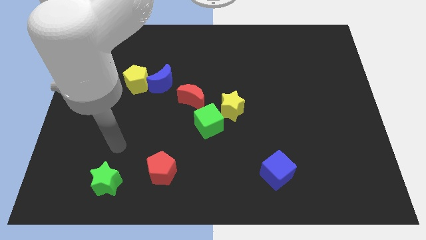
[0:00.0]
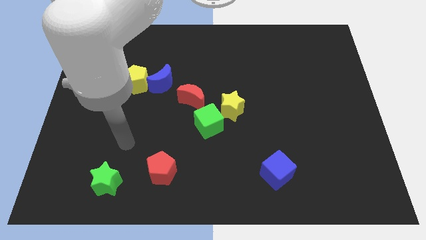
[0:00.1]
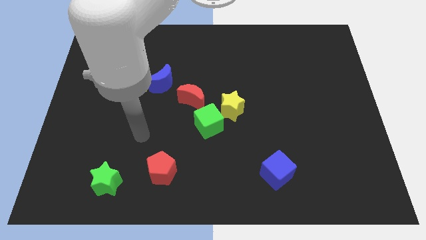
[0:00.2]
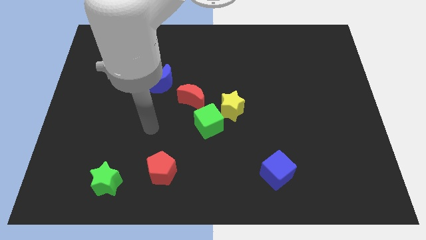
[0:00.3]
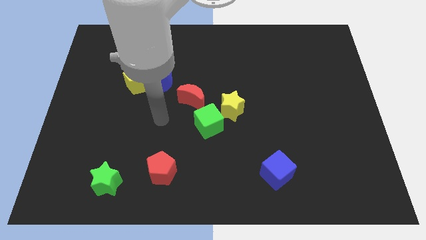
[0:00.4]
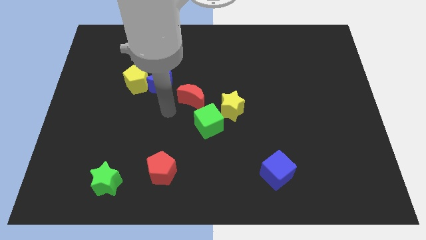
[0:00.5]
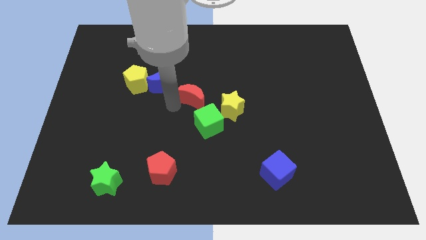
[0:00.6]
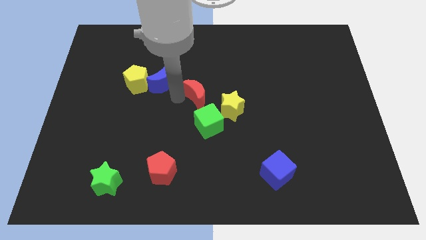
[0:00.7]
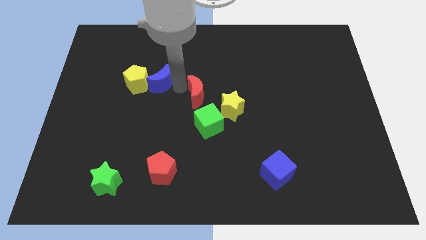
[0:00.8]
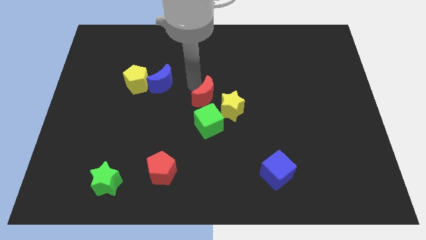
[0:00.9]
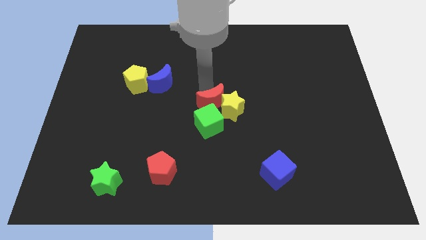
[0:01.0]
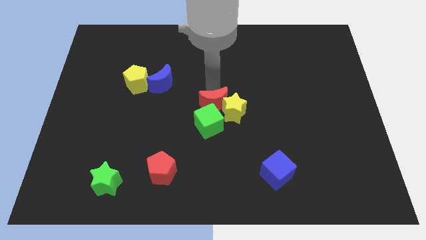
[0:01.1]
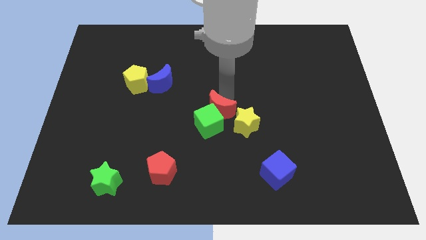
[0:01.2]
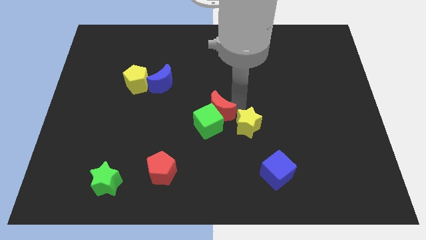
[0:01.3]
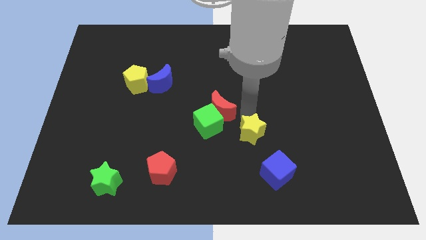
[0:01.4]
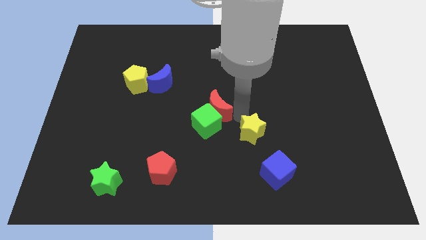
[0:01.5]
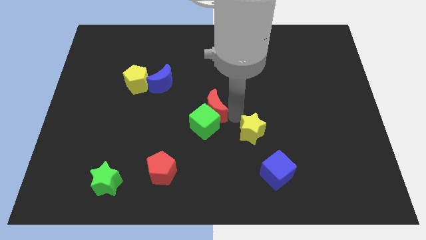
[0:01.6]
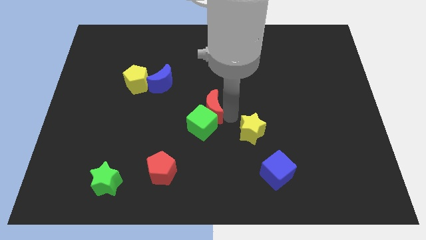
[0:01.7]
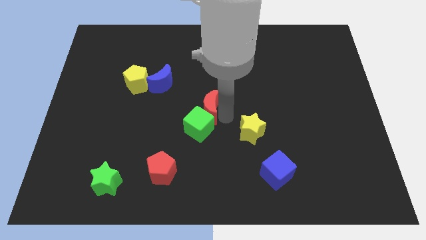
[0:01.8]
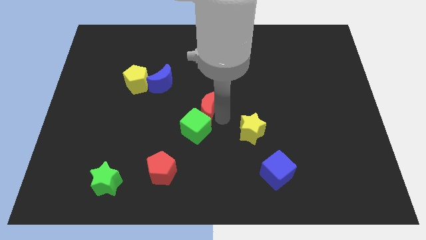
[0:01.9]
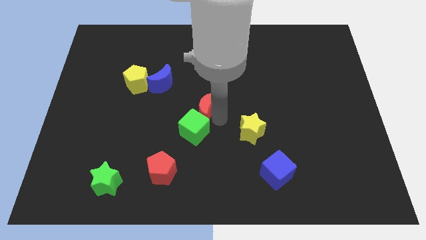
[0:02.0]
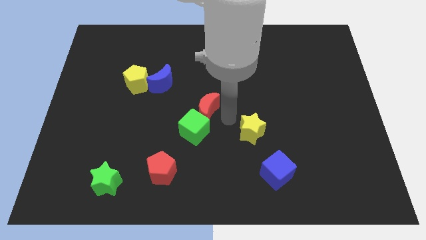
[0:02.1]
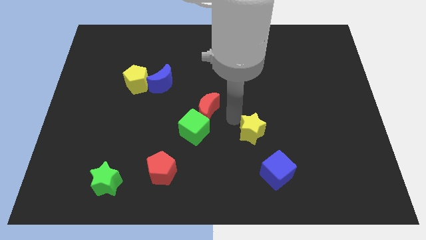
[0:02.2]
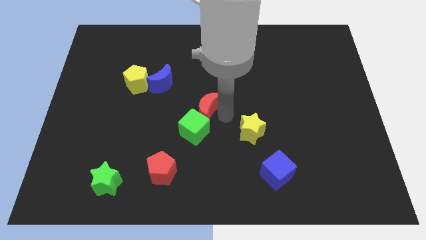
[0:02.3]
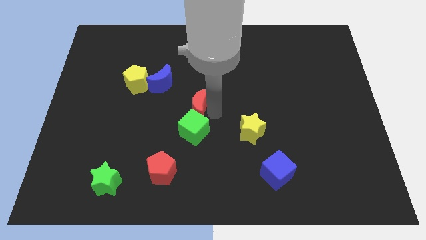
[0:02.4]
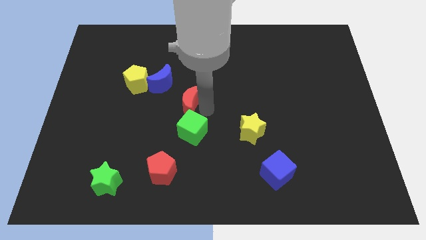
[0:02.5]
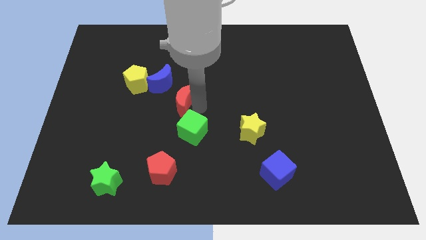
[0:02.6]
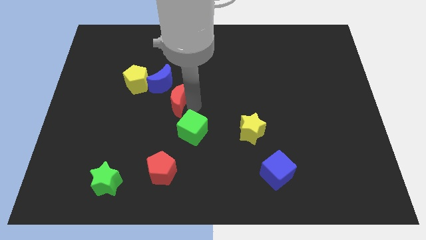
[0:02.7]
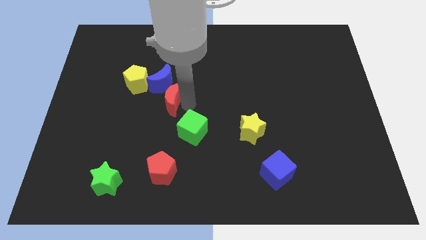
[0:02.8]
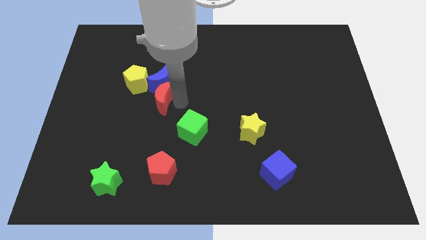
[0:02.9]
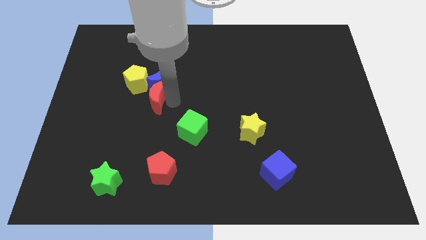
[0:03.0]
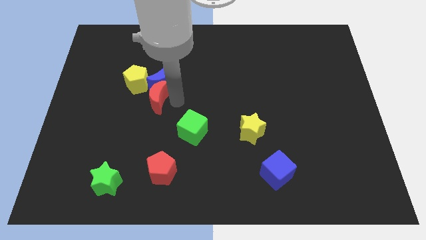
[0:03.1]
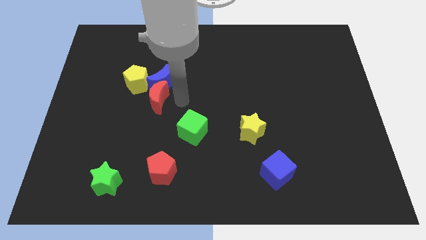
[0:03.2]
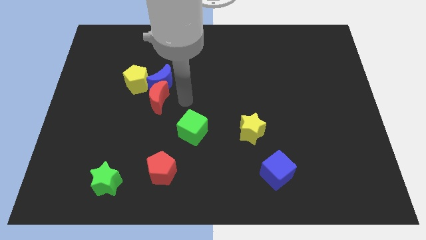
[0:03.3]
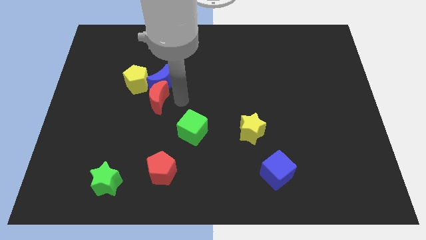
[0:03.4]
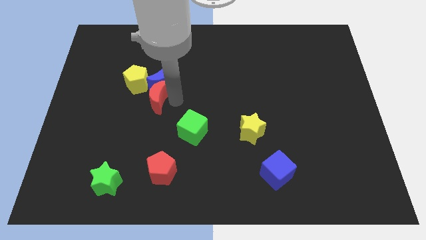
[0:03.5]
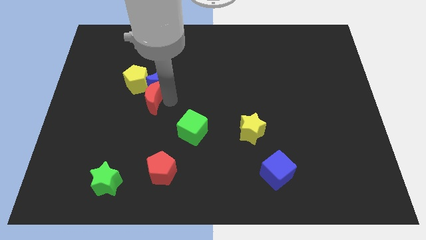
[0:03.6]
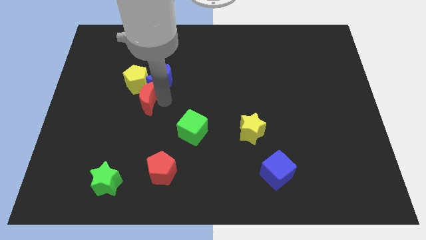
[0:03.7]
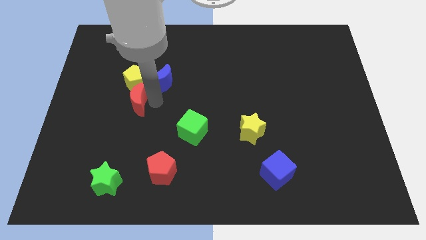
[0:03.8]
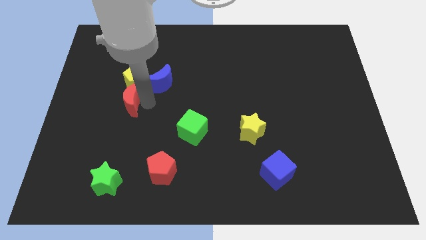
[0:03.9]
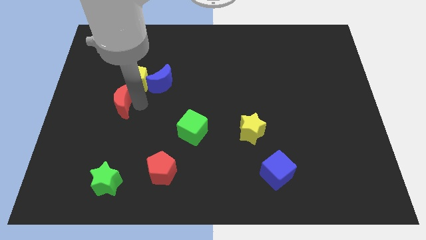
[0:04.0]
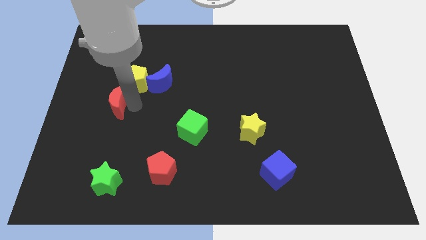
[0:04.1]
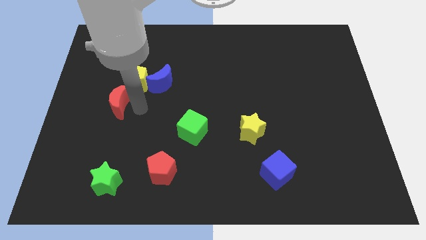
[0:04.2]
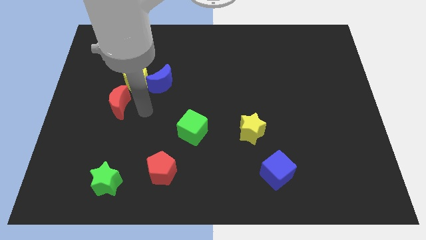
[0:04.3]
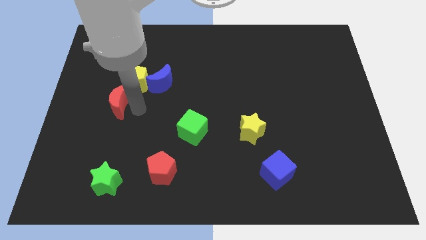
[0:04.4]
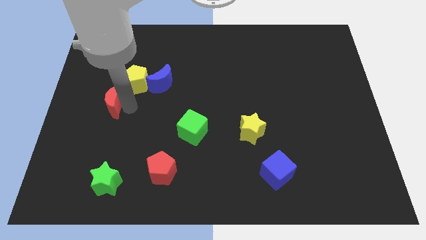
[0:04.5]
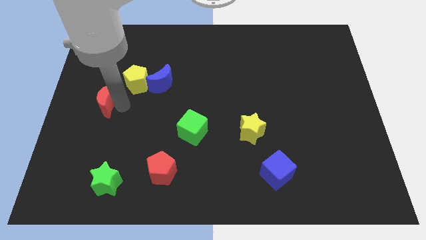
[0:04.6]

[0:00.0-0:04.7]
slide the red moon to the center left

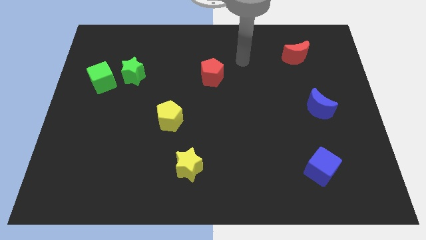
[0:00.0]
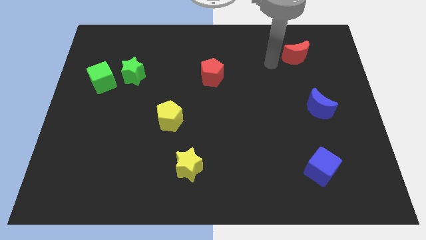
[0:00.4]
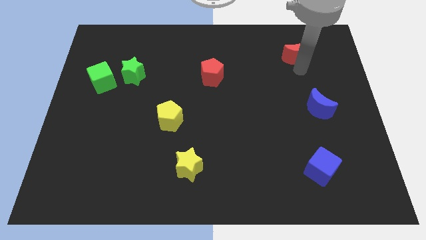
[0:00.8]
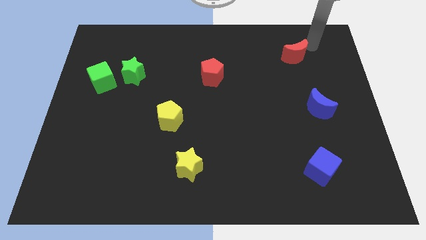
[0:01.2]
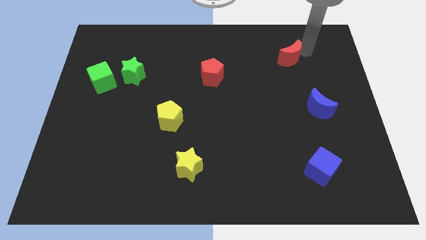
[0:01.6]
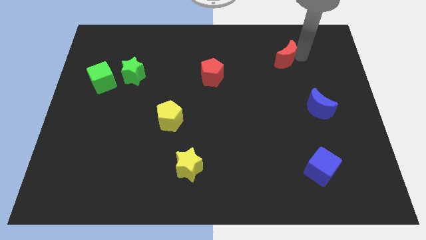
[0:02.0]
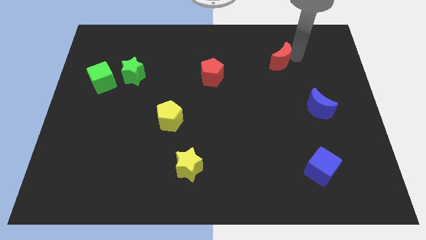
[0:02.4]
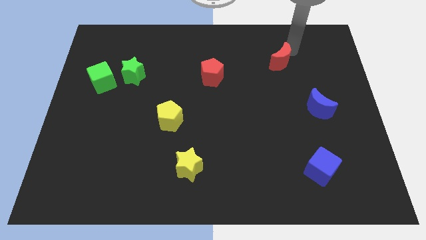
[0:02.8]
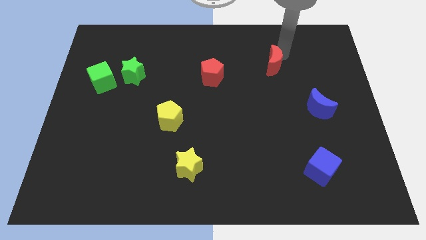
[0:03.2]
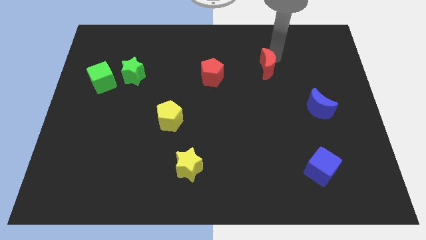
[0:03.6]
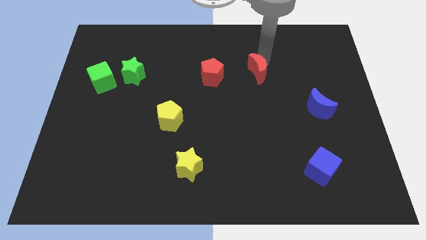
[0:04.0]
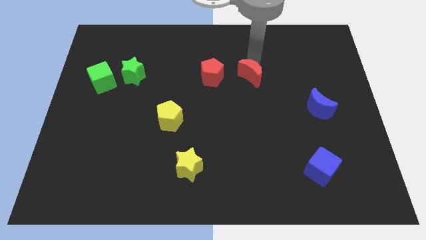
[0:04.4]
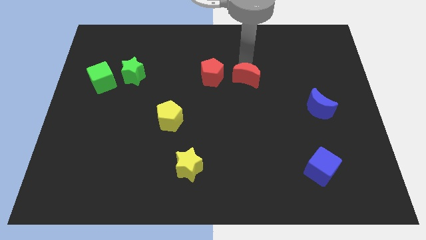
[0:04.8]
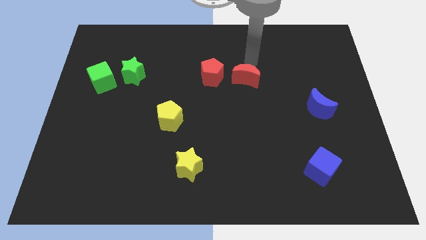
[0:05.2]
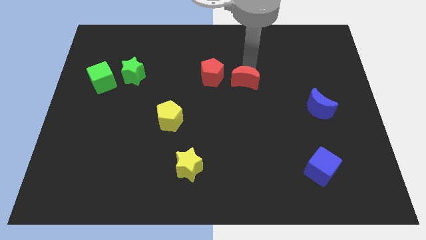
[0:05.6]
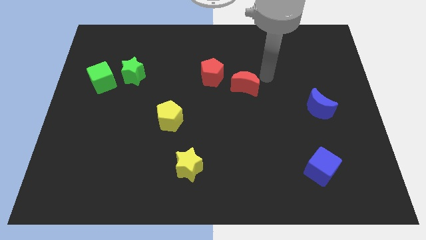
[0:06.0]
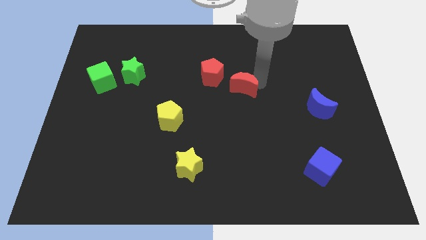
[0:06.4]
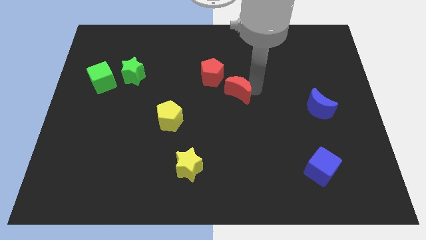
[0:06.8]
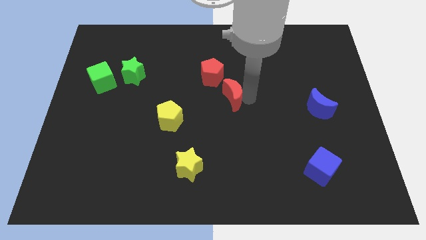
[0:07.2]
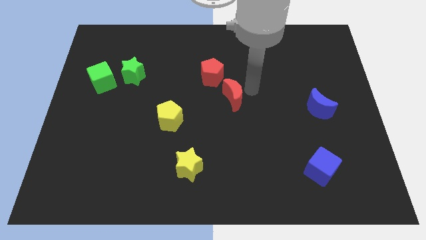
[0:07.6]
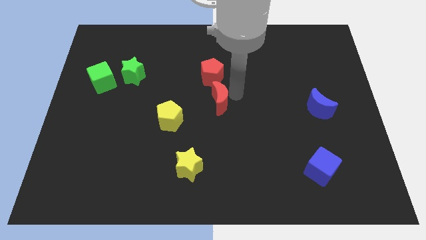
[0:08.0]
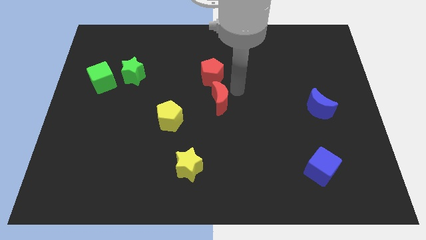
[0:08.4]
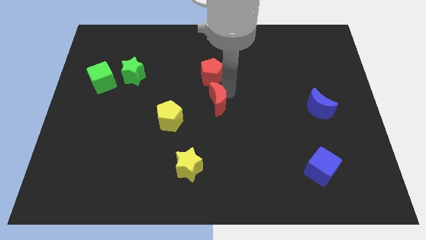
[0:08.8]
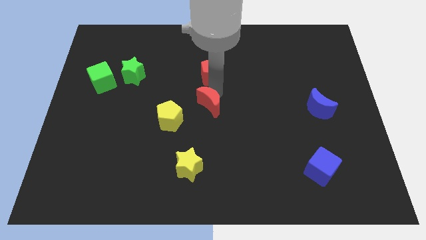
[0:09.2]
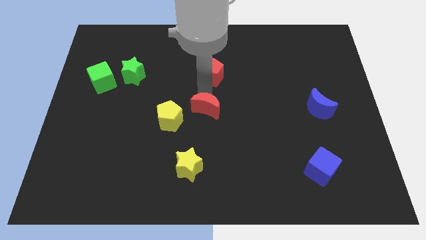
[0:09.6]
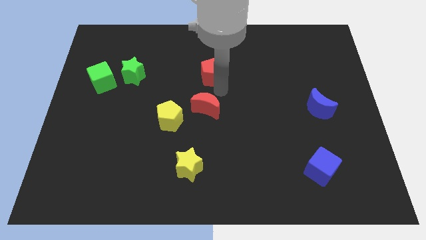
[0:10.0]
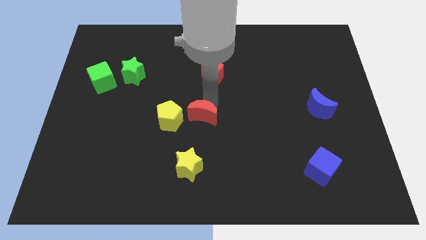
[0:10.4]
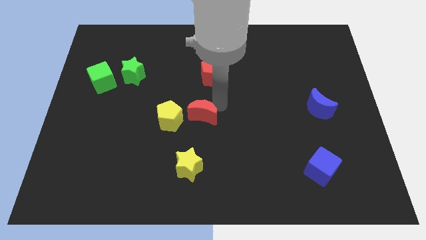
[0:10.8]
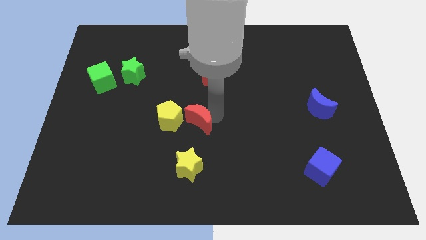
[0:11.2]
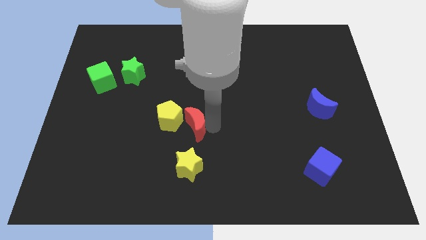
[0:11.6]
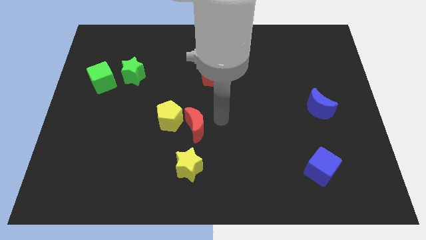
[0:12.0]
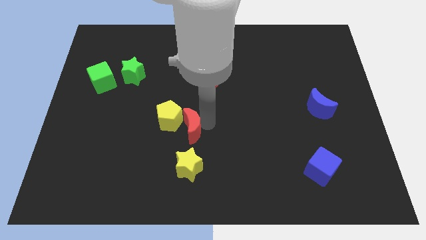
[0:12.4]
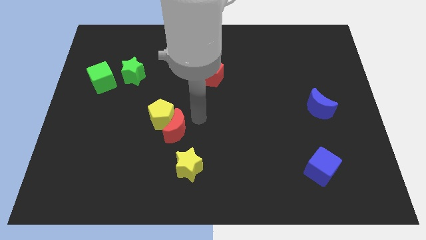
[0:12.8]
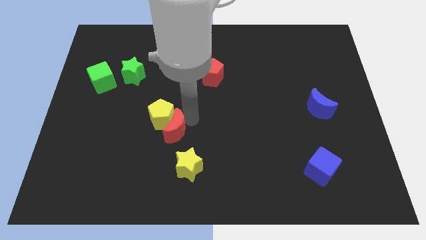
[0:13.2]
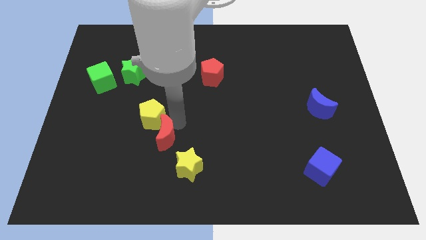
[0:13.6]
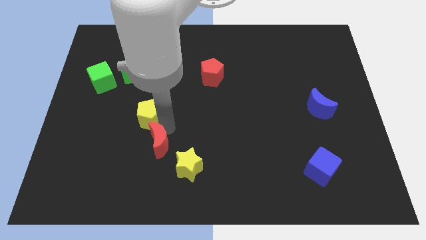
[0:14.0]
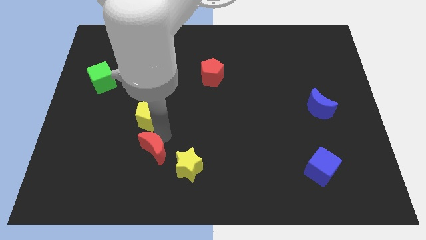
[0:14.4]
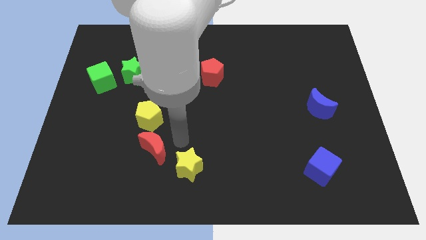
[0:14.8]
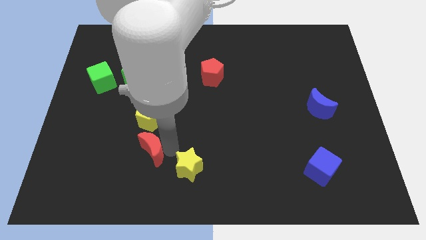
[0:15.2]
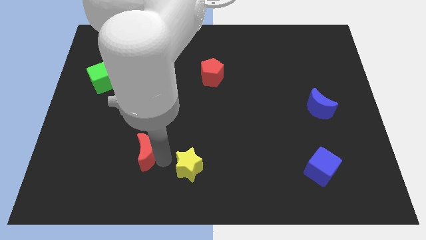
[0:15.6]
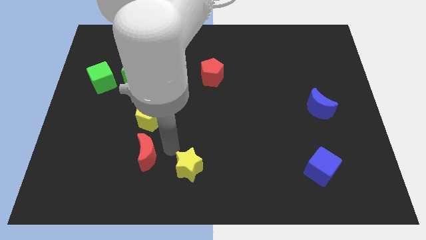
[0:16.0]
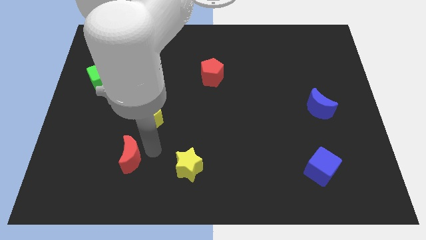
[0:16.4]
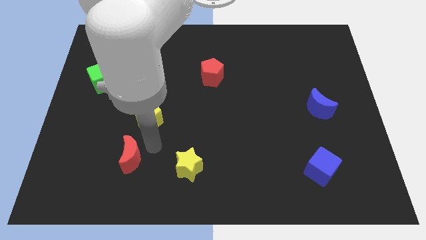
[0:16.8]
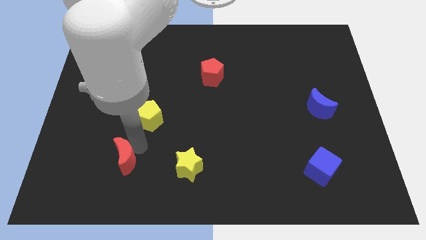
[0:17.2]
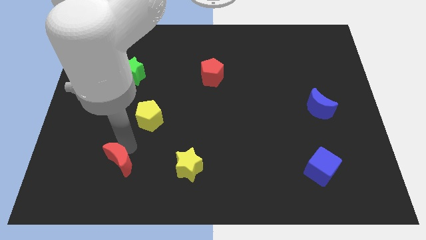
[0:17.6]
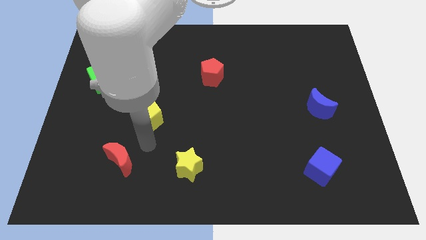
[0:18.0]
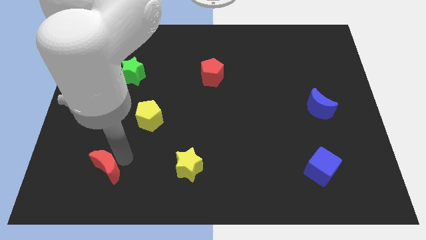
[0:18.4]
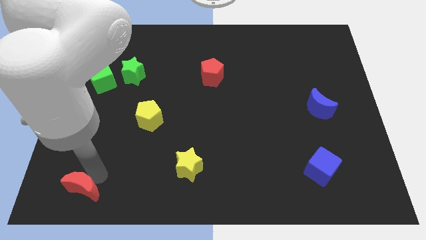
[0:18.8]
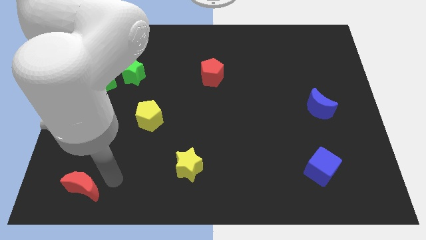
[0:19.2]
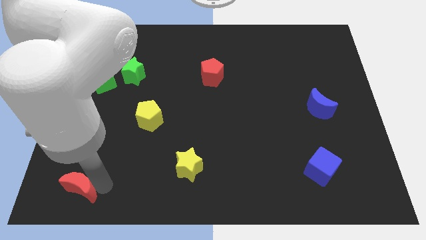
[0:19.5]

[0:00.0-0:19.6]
push the red moon to the lower left corner
